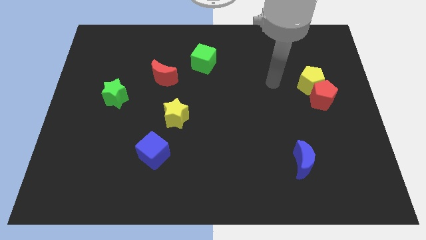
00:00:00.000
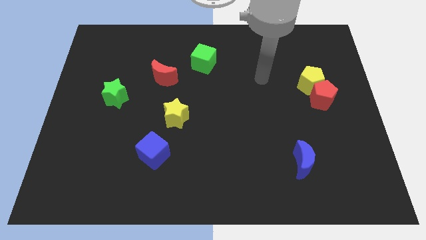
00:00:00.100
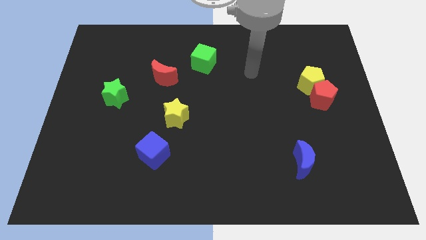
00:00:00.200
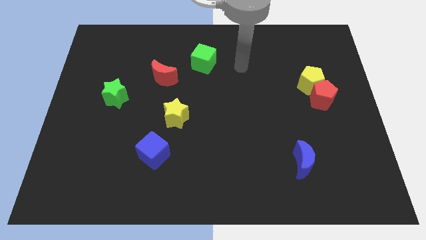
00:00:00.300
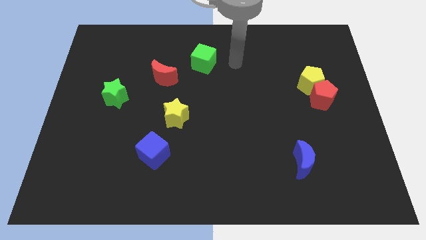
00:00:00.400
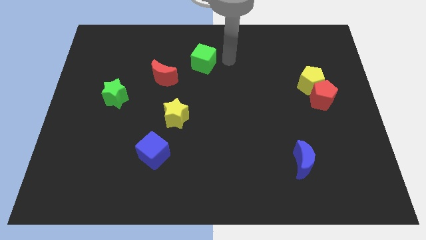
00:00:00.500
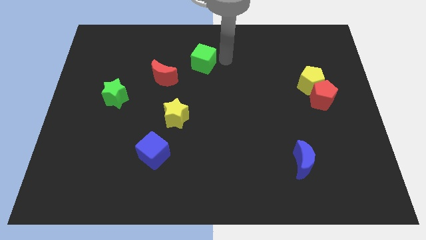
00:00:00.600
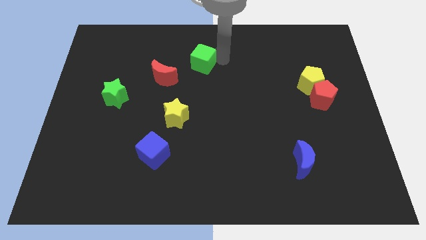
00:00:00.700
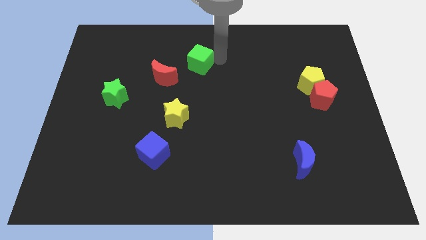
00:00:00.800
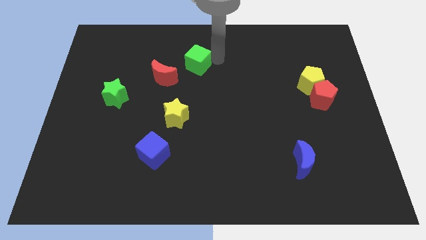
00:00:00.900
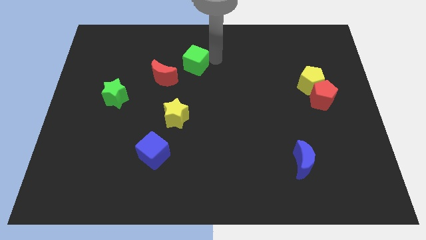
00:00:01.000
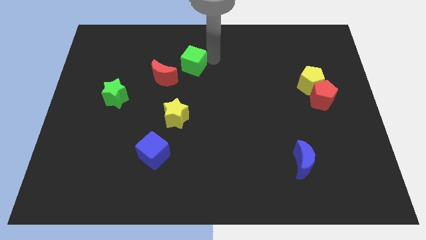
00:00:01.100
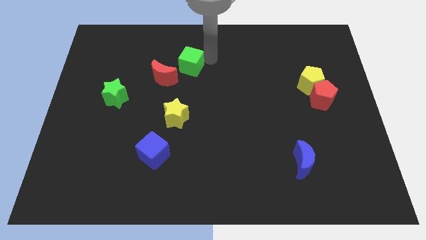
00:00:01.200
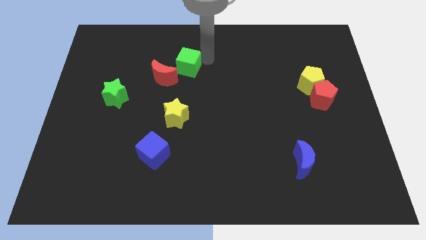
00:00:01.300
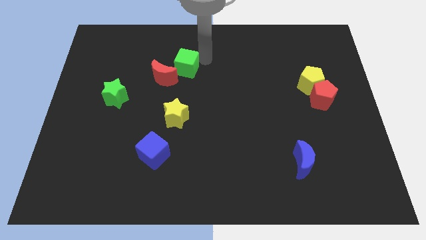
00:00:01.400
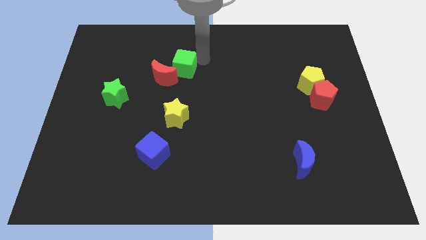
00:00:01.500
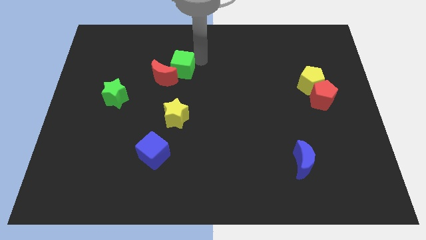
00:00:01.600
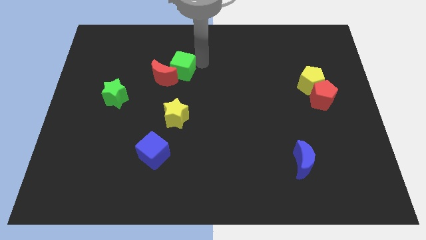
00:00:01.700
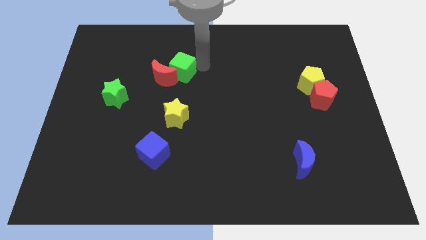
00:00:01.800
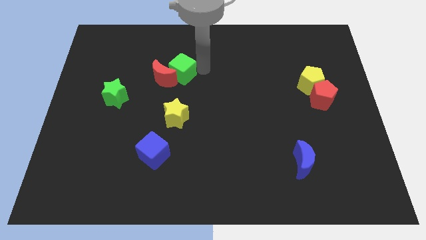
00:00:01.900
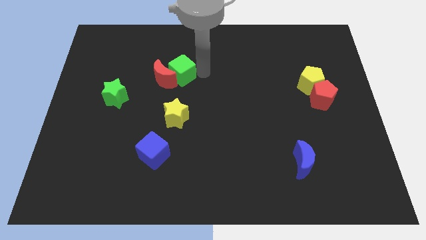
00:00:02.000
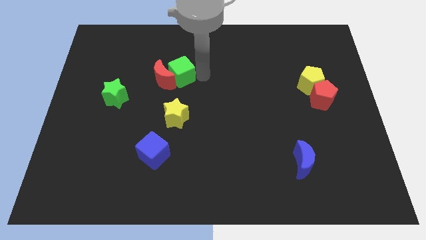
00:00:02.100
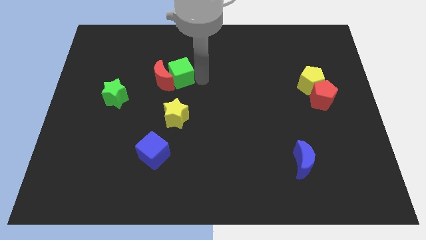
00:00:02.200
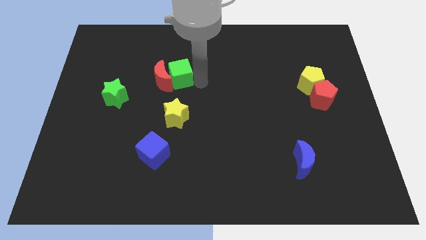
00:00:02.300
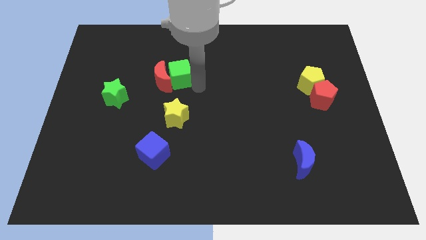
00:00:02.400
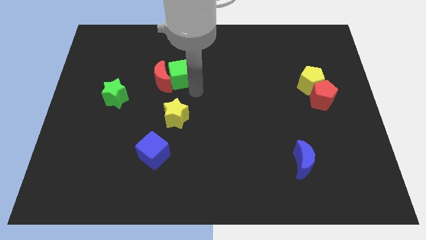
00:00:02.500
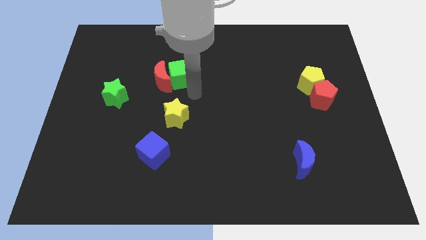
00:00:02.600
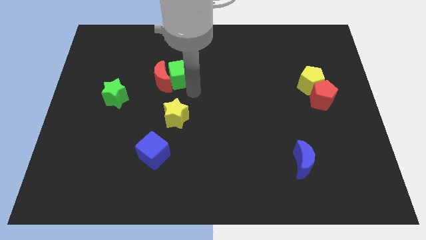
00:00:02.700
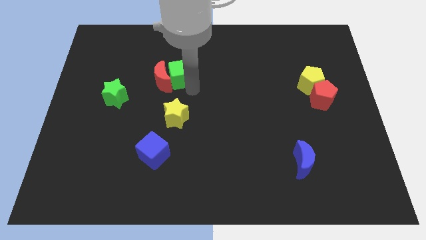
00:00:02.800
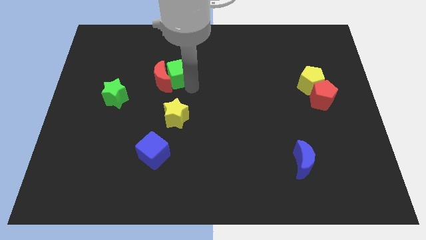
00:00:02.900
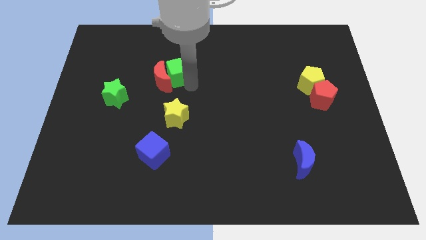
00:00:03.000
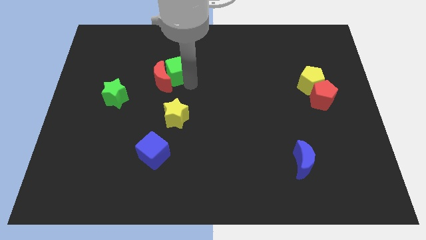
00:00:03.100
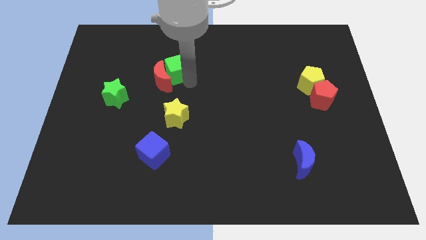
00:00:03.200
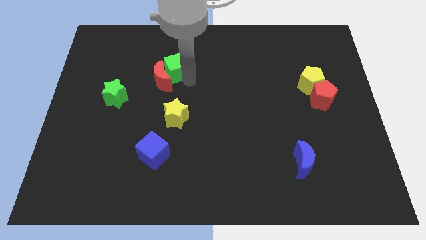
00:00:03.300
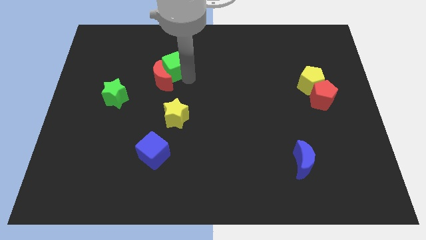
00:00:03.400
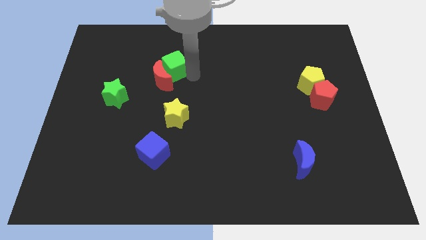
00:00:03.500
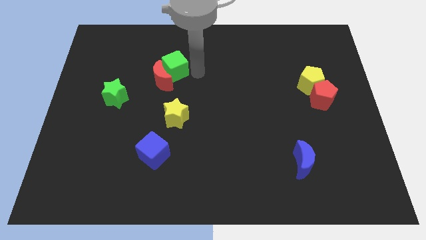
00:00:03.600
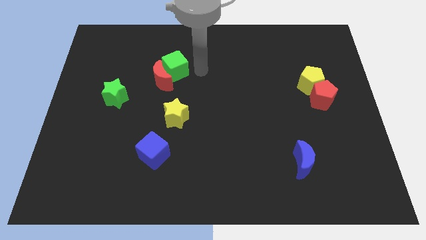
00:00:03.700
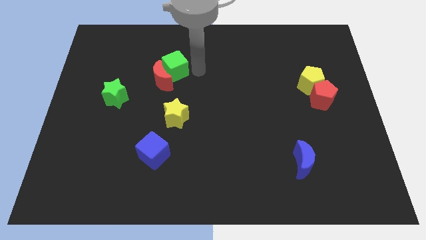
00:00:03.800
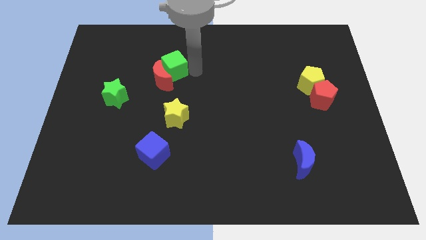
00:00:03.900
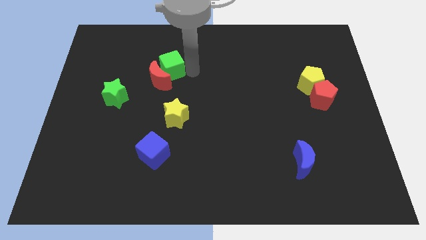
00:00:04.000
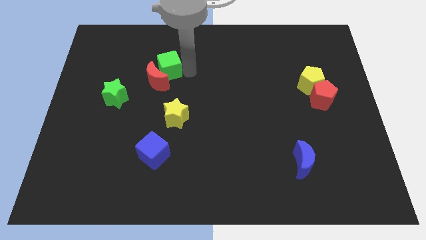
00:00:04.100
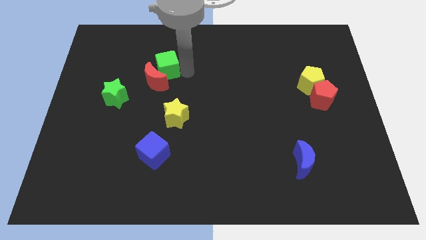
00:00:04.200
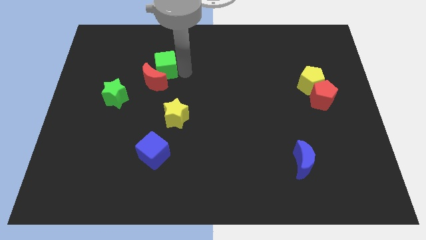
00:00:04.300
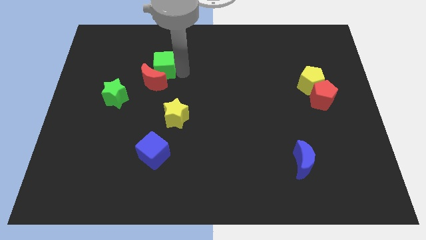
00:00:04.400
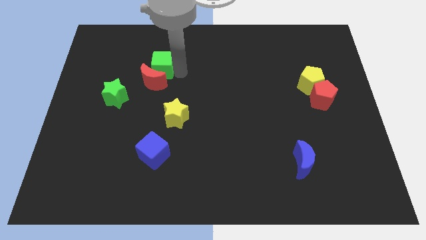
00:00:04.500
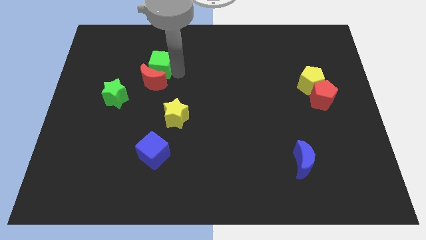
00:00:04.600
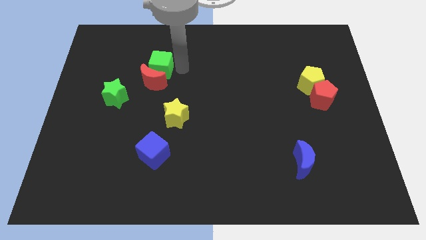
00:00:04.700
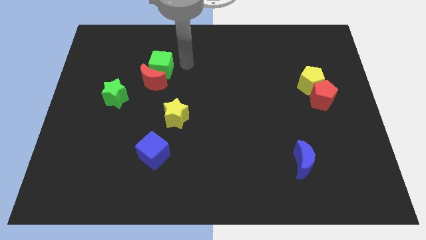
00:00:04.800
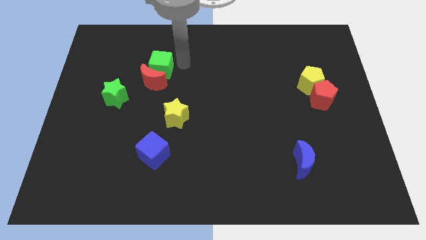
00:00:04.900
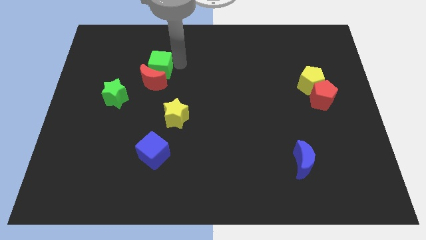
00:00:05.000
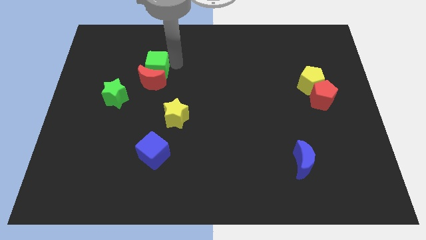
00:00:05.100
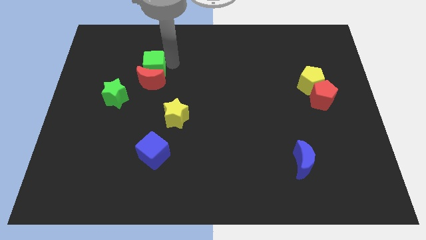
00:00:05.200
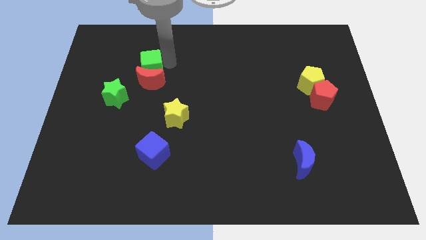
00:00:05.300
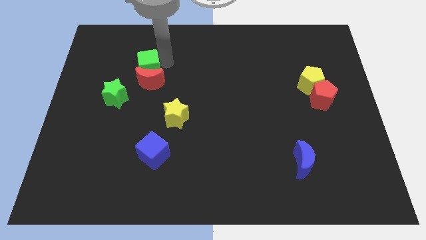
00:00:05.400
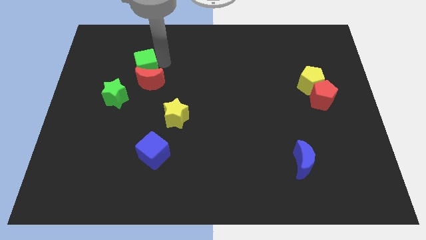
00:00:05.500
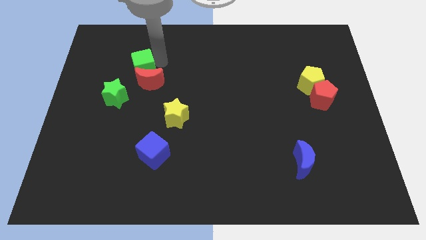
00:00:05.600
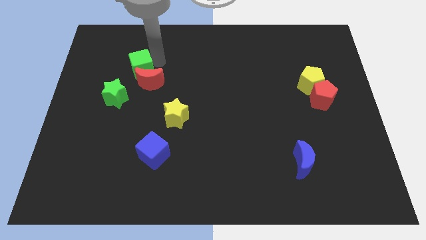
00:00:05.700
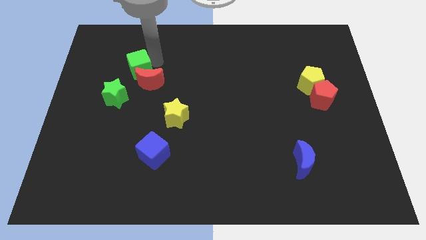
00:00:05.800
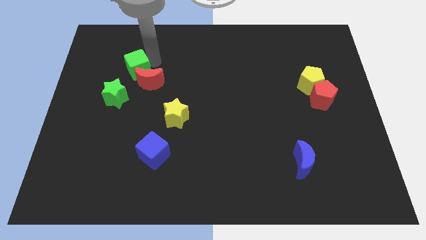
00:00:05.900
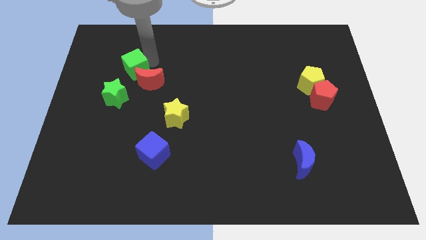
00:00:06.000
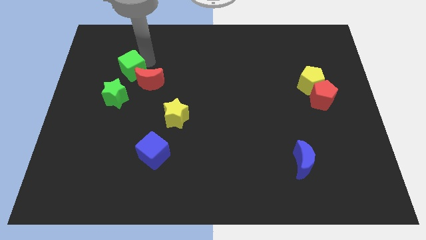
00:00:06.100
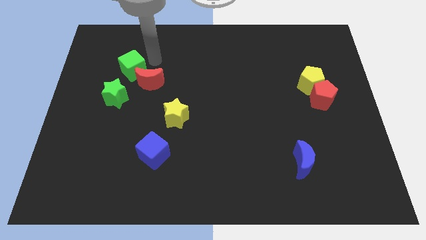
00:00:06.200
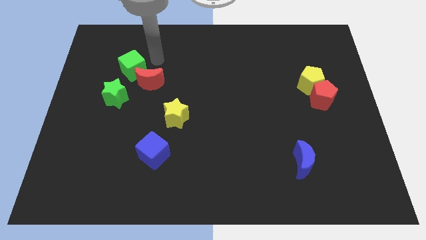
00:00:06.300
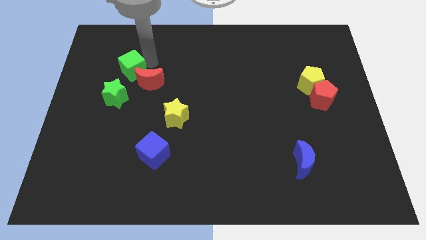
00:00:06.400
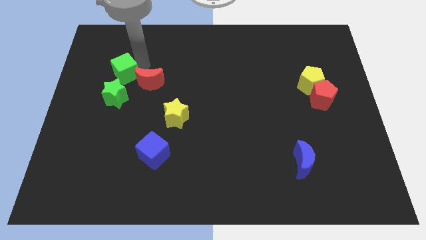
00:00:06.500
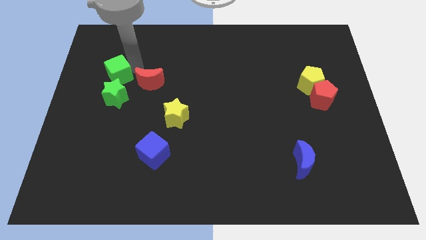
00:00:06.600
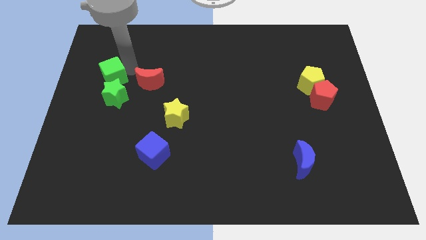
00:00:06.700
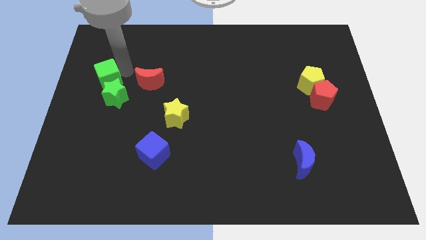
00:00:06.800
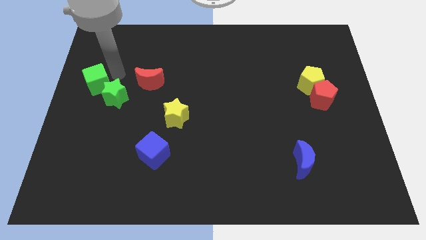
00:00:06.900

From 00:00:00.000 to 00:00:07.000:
put the green cube to the left side of the board
